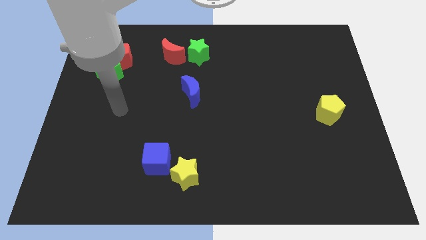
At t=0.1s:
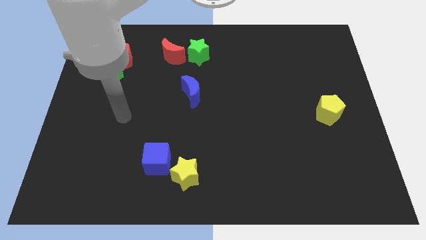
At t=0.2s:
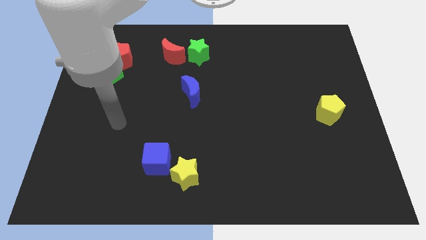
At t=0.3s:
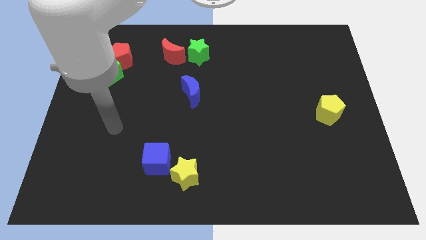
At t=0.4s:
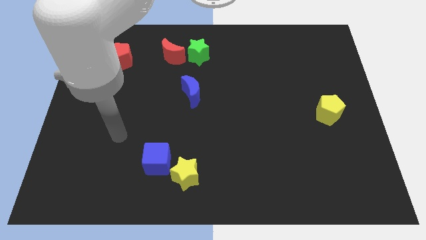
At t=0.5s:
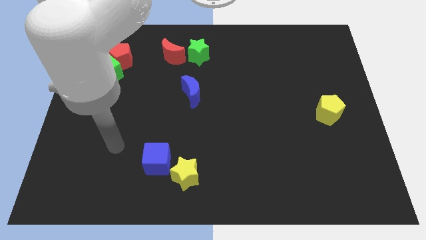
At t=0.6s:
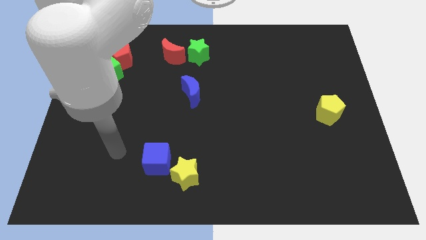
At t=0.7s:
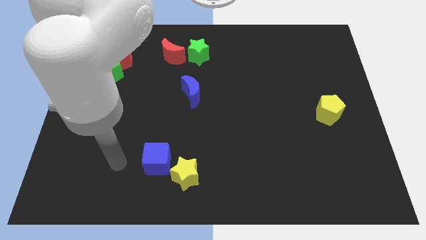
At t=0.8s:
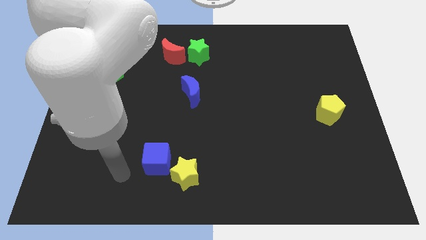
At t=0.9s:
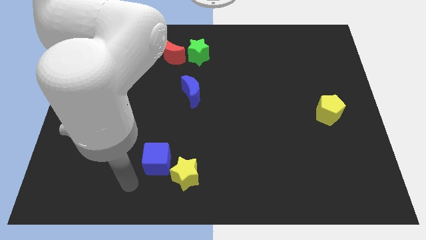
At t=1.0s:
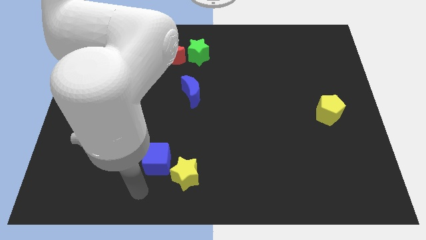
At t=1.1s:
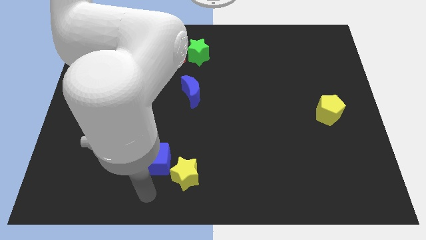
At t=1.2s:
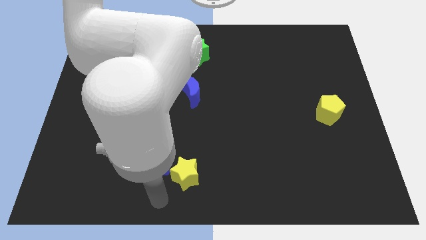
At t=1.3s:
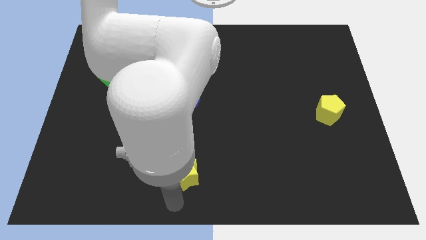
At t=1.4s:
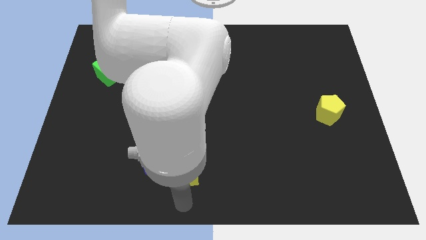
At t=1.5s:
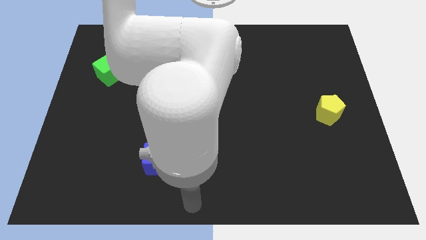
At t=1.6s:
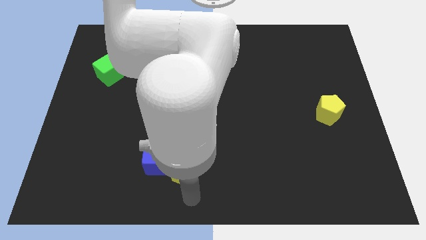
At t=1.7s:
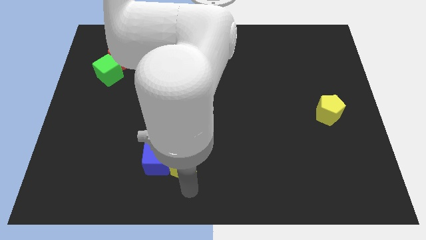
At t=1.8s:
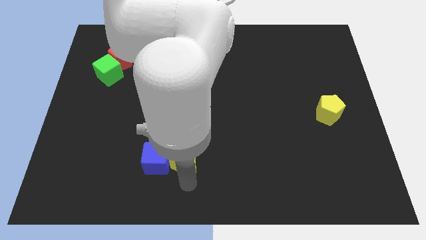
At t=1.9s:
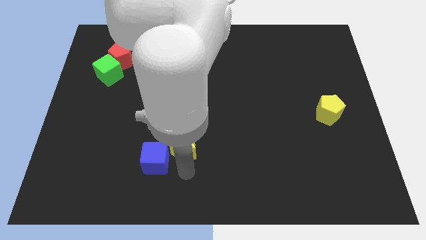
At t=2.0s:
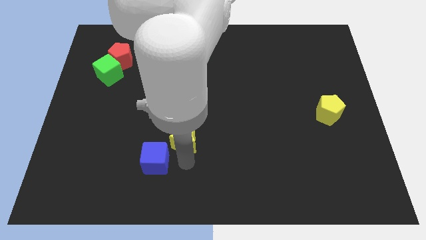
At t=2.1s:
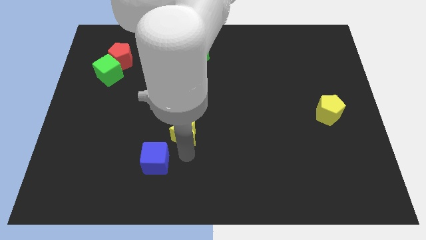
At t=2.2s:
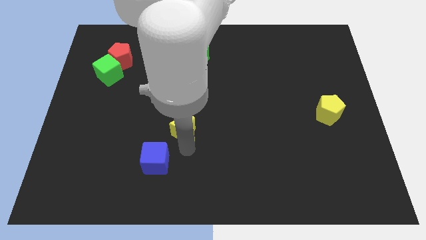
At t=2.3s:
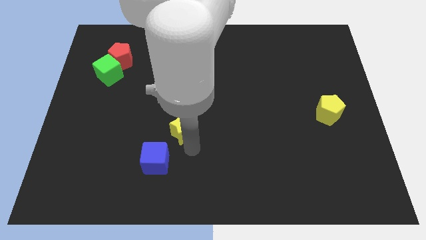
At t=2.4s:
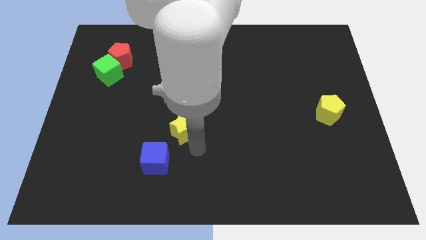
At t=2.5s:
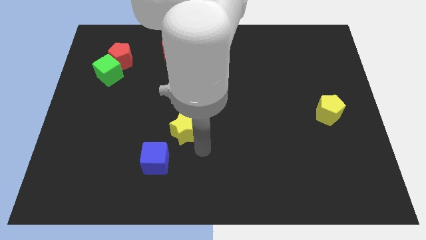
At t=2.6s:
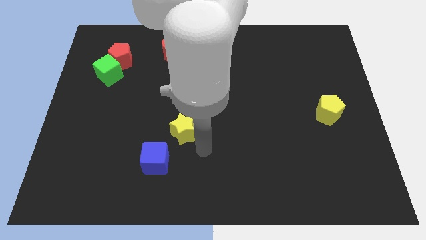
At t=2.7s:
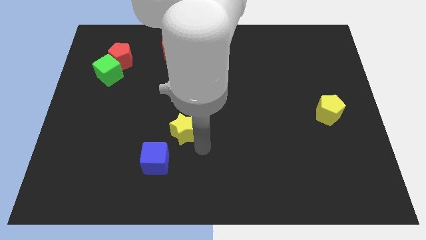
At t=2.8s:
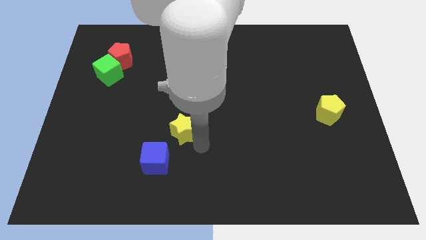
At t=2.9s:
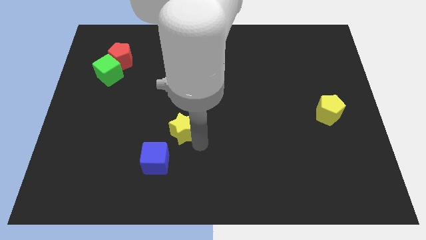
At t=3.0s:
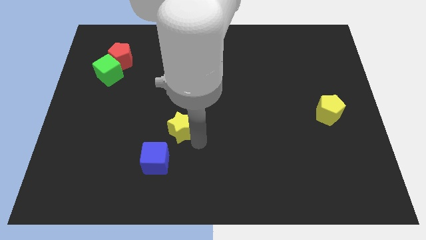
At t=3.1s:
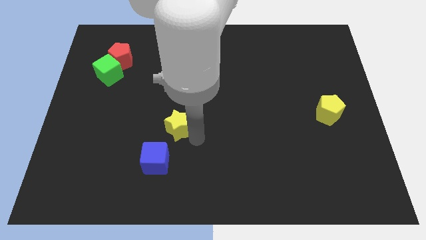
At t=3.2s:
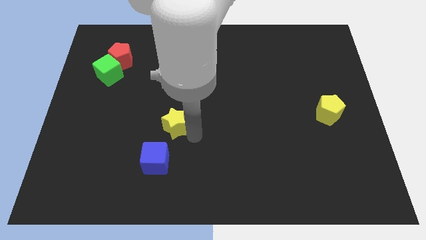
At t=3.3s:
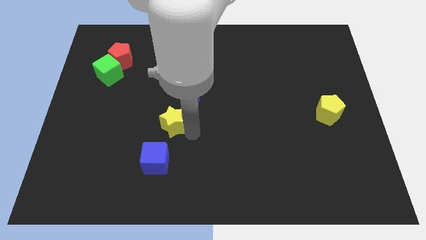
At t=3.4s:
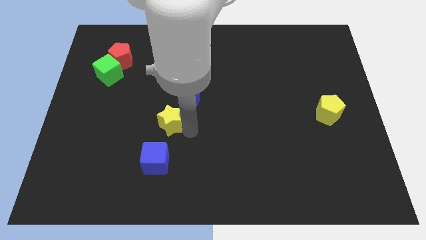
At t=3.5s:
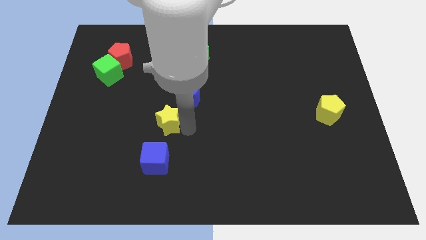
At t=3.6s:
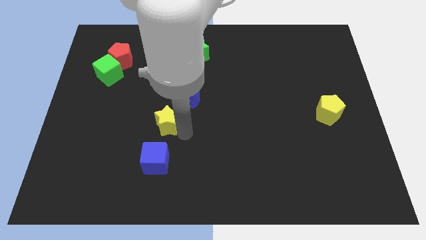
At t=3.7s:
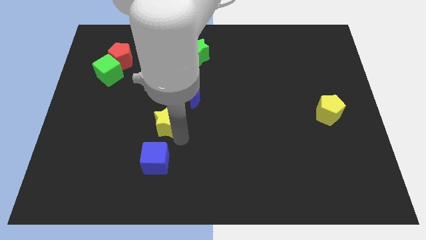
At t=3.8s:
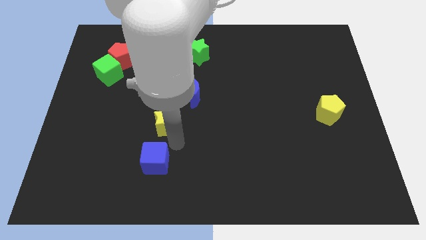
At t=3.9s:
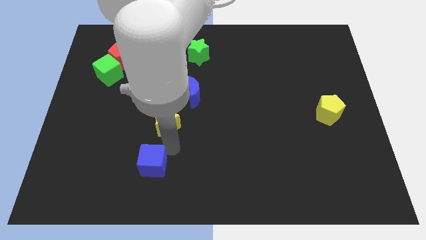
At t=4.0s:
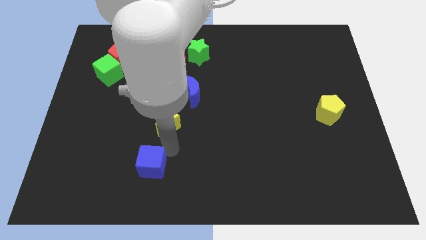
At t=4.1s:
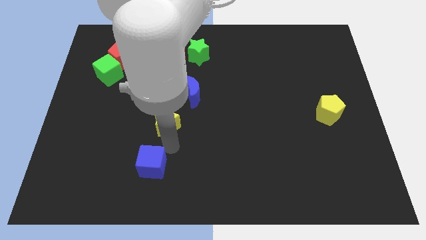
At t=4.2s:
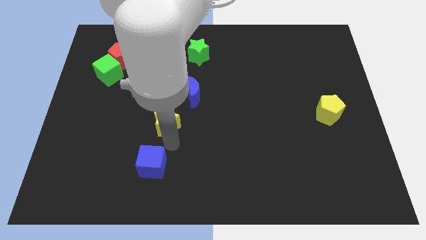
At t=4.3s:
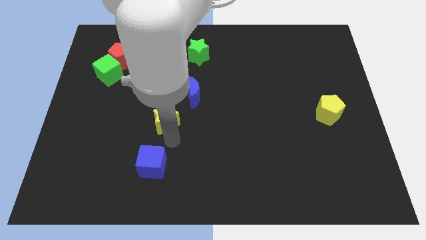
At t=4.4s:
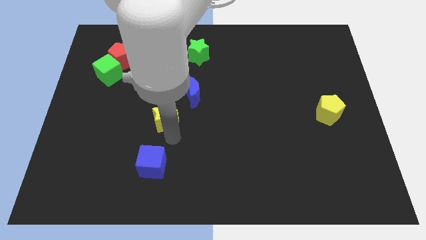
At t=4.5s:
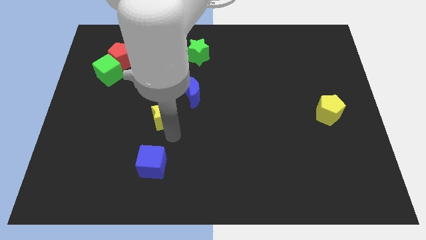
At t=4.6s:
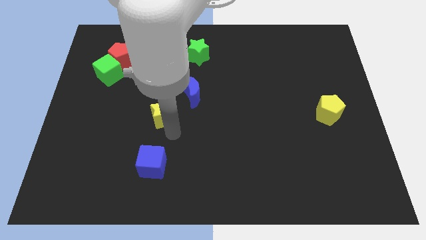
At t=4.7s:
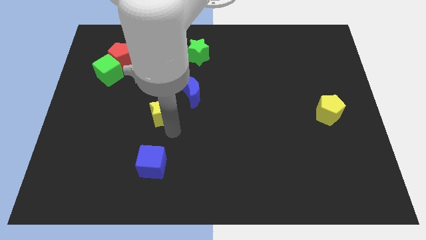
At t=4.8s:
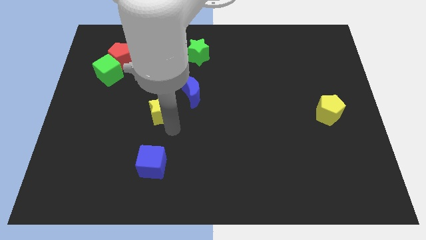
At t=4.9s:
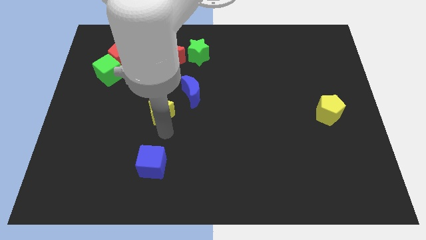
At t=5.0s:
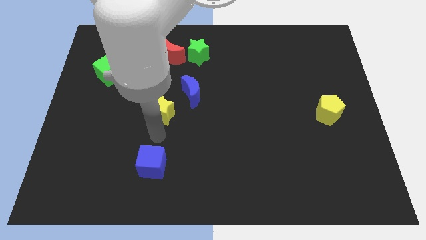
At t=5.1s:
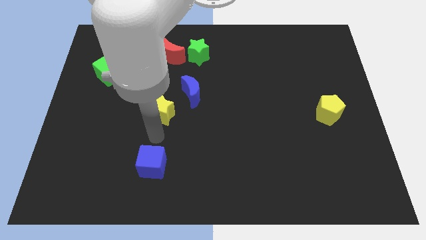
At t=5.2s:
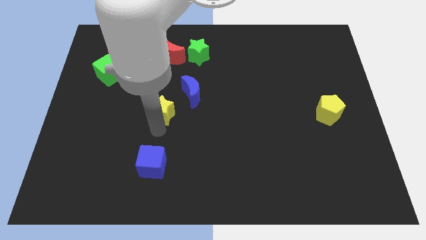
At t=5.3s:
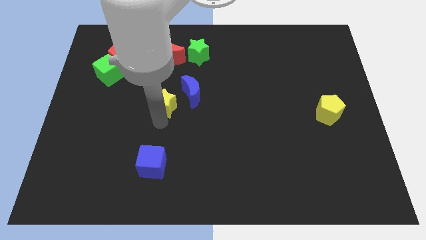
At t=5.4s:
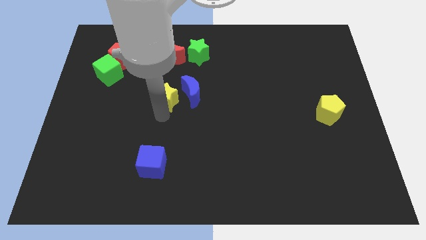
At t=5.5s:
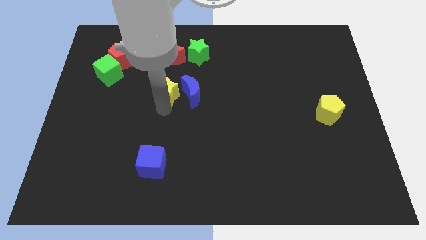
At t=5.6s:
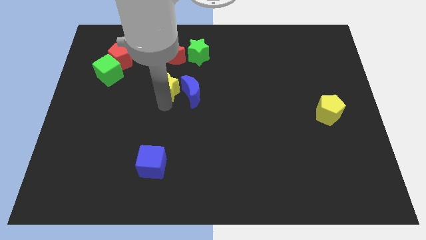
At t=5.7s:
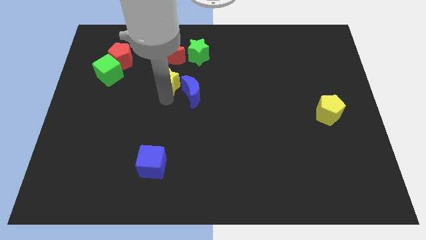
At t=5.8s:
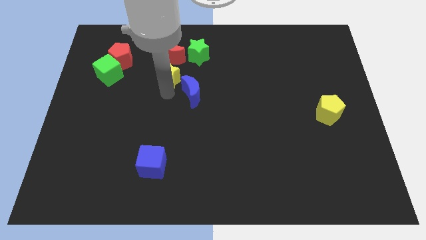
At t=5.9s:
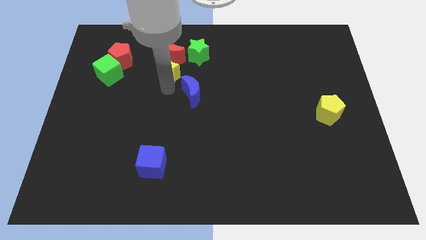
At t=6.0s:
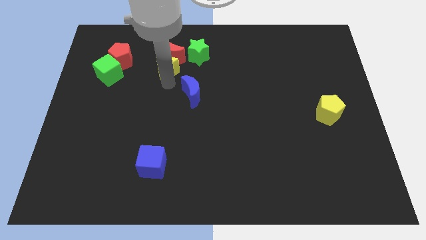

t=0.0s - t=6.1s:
slide the yellow star towards the red moon

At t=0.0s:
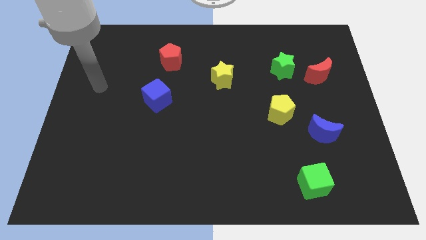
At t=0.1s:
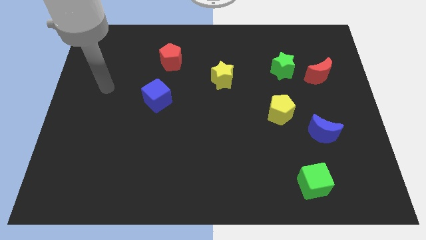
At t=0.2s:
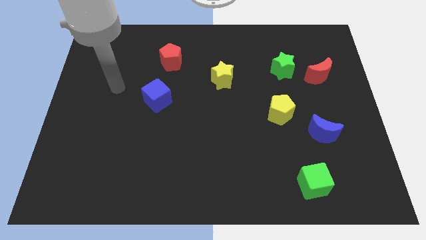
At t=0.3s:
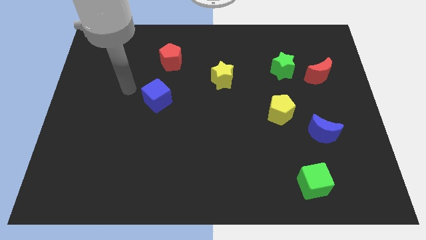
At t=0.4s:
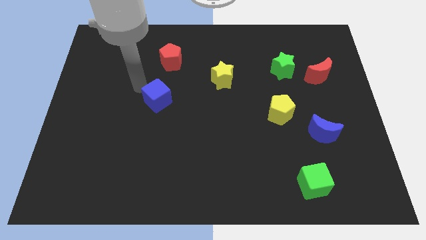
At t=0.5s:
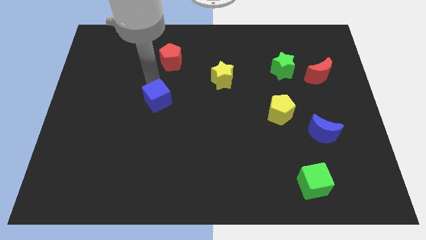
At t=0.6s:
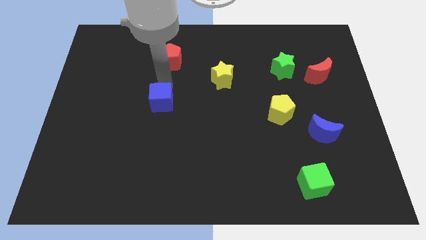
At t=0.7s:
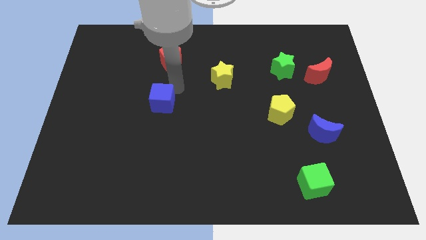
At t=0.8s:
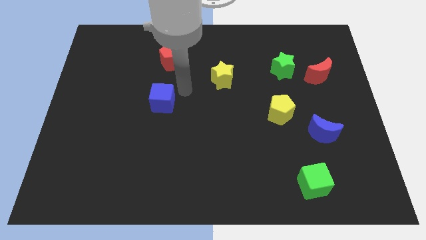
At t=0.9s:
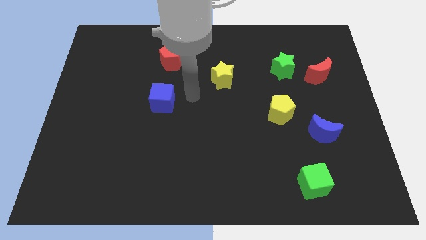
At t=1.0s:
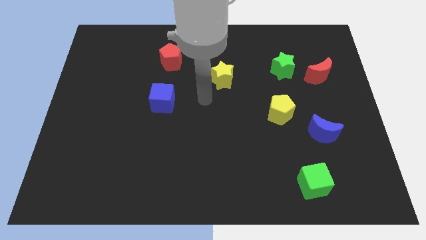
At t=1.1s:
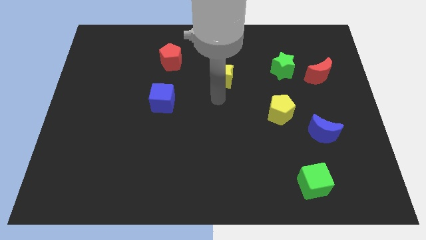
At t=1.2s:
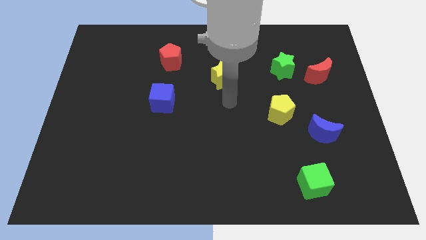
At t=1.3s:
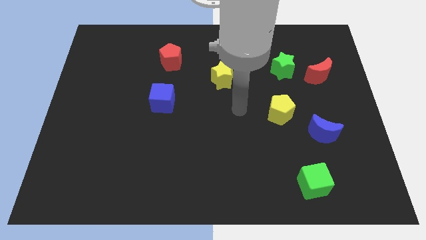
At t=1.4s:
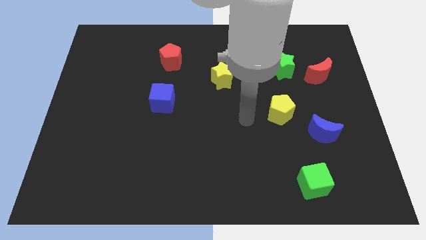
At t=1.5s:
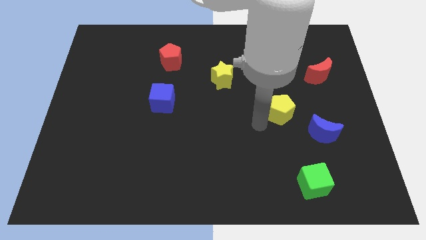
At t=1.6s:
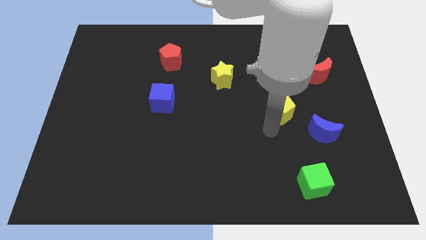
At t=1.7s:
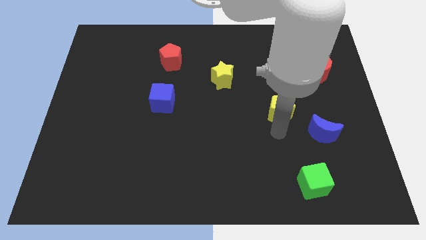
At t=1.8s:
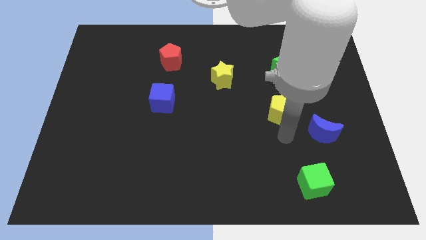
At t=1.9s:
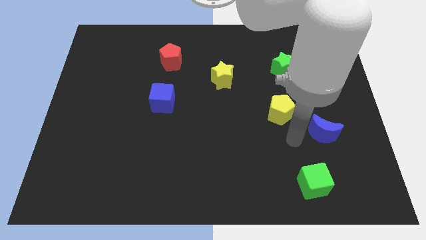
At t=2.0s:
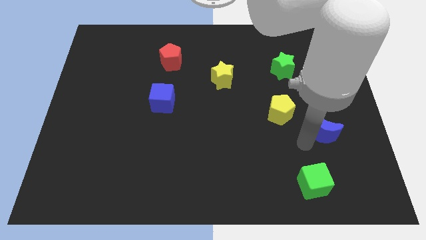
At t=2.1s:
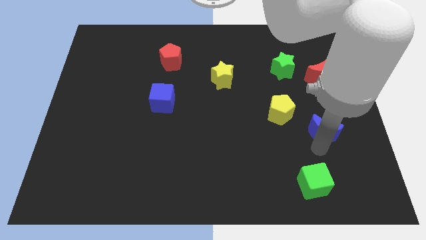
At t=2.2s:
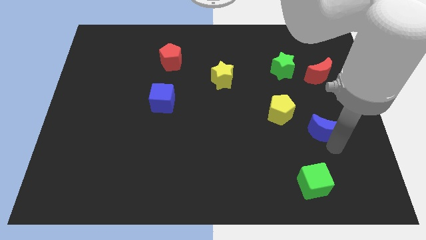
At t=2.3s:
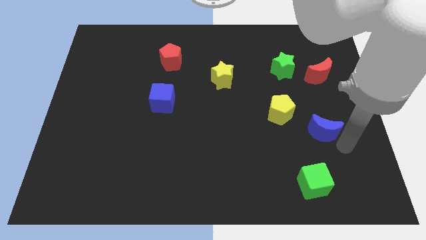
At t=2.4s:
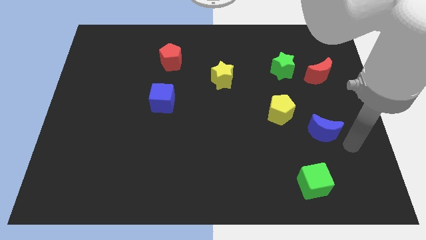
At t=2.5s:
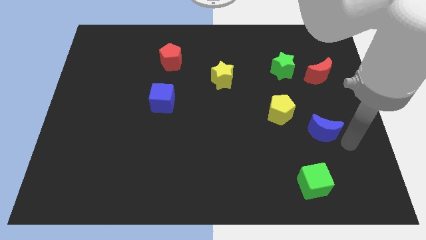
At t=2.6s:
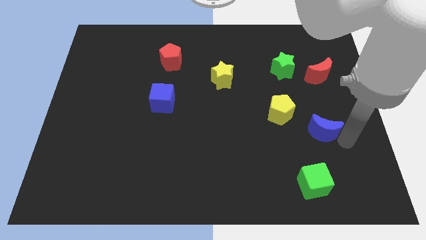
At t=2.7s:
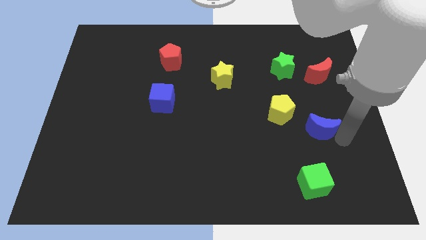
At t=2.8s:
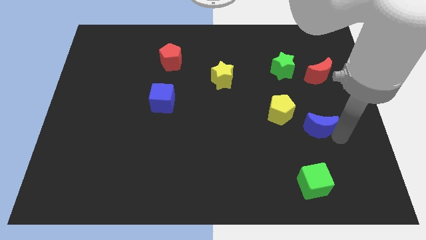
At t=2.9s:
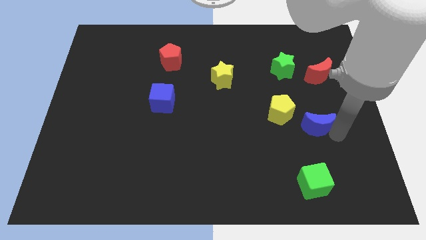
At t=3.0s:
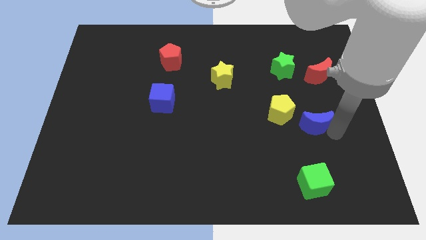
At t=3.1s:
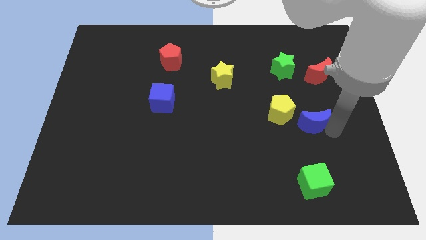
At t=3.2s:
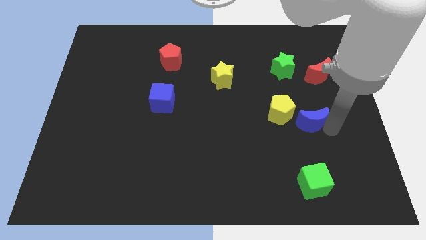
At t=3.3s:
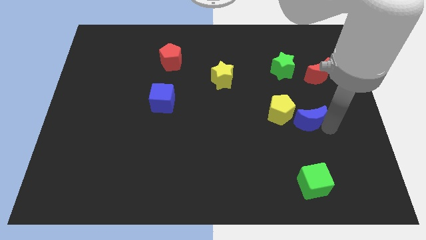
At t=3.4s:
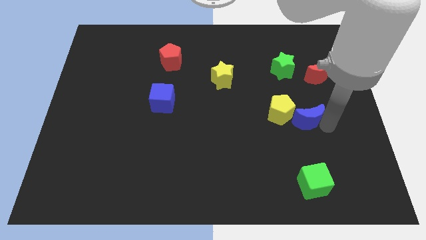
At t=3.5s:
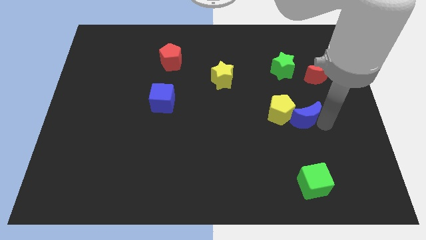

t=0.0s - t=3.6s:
put the blue moon to the yellow pentagon
